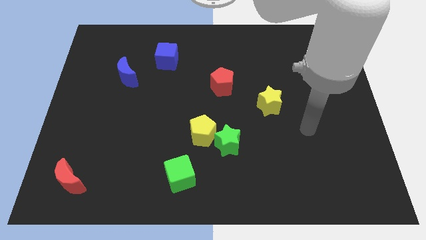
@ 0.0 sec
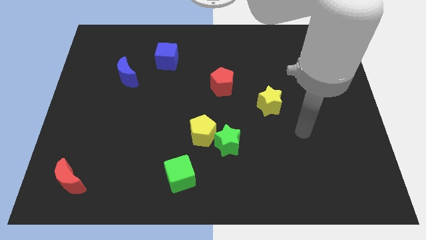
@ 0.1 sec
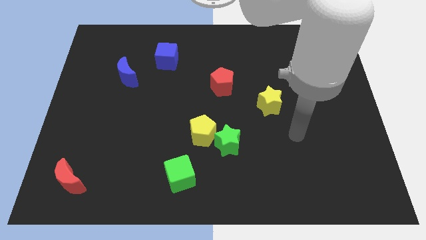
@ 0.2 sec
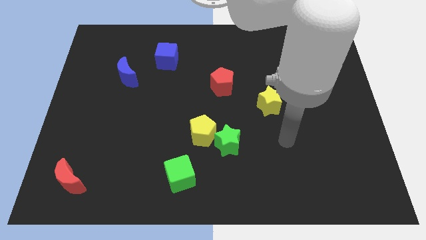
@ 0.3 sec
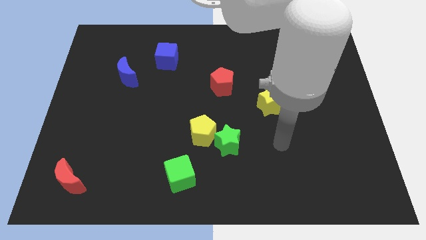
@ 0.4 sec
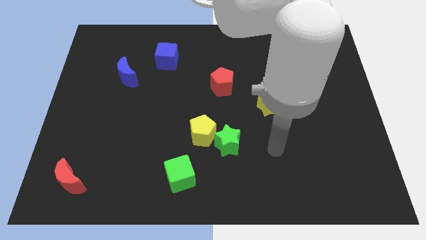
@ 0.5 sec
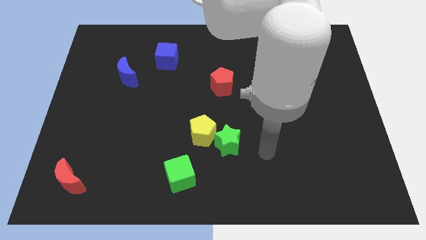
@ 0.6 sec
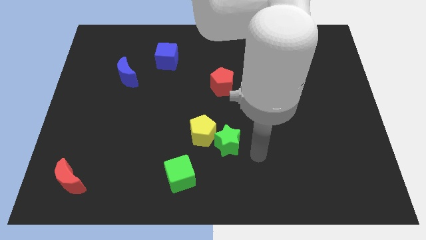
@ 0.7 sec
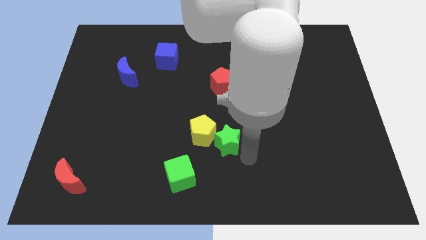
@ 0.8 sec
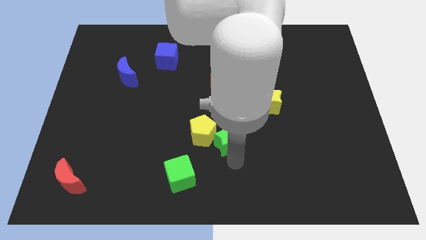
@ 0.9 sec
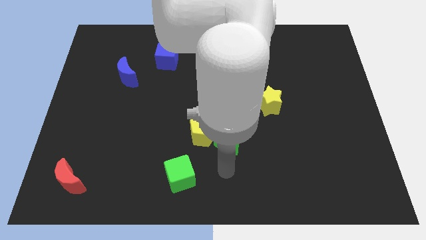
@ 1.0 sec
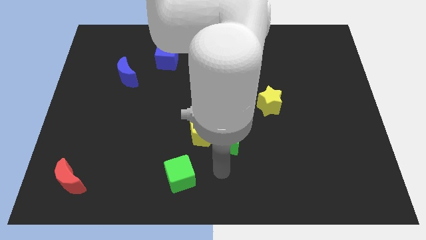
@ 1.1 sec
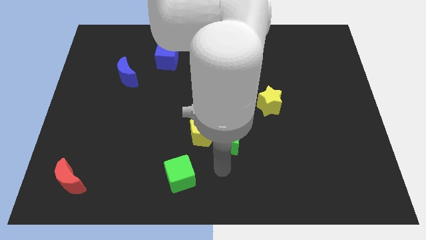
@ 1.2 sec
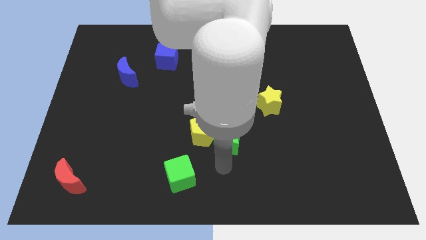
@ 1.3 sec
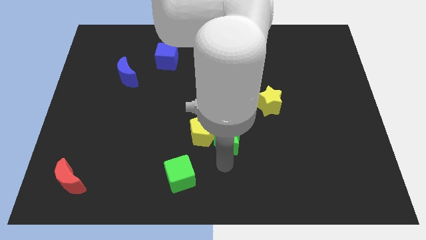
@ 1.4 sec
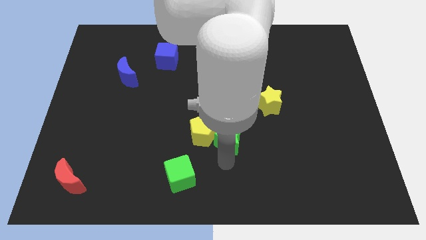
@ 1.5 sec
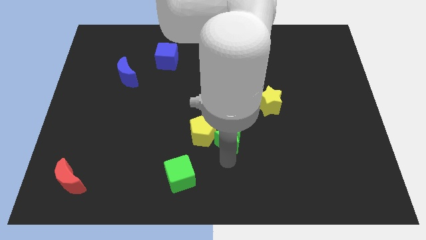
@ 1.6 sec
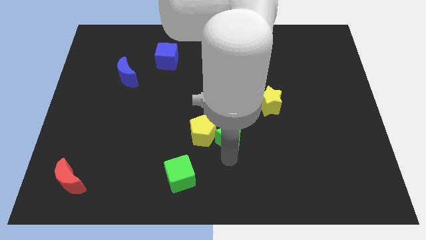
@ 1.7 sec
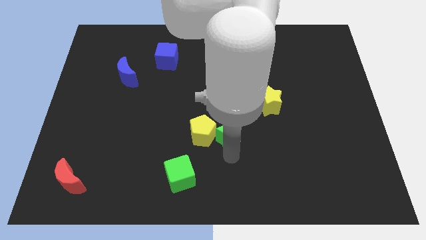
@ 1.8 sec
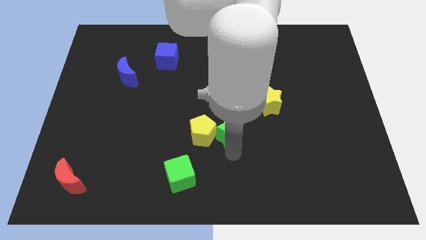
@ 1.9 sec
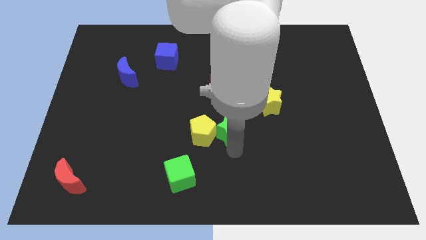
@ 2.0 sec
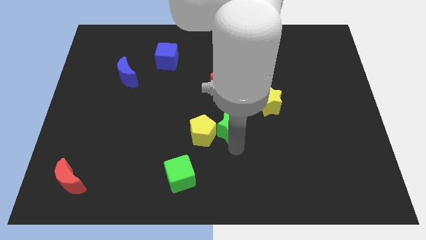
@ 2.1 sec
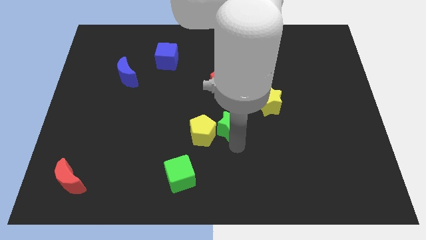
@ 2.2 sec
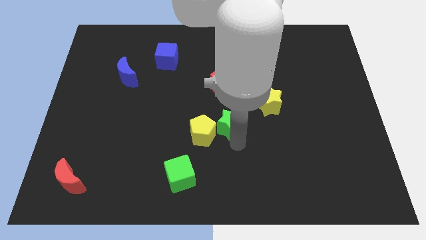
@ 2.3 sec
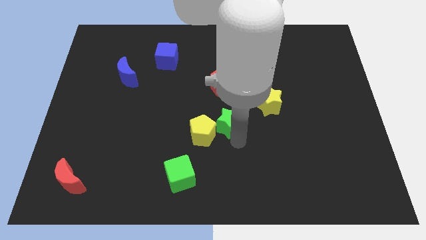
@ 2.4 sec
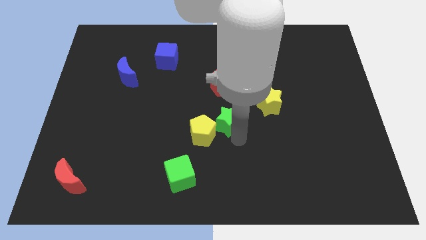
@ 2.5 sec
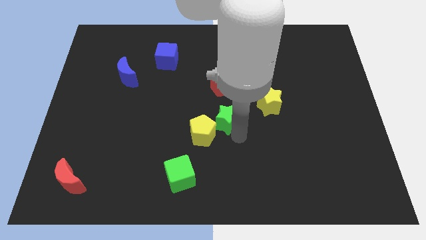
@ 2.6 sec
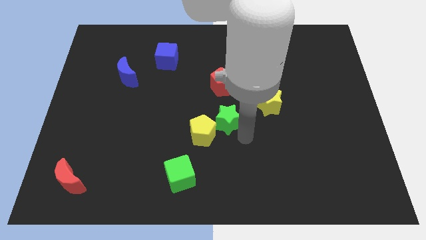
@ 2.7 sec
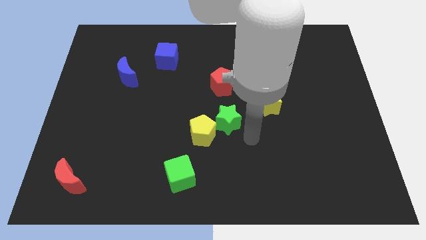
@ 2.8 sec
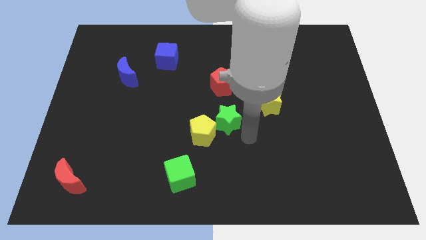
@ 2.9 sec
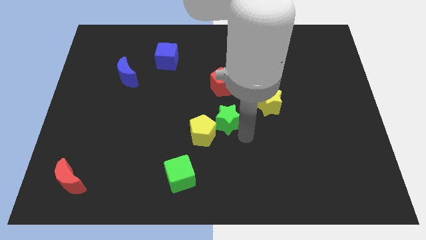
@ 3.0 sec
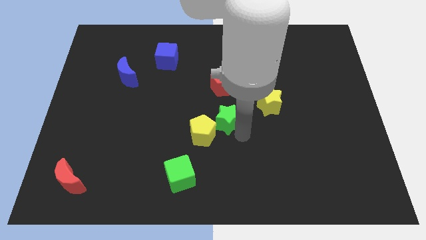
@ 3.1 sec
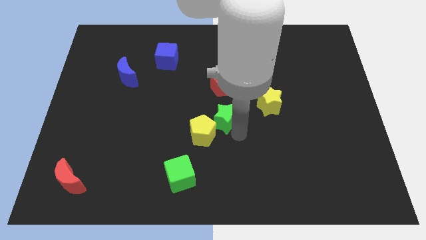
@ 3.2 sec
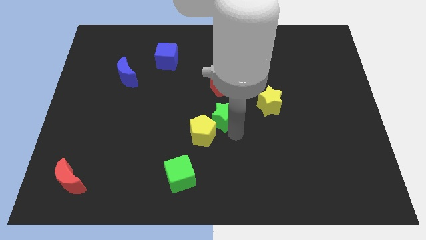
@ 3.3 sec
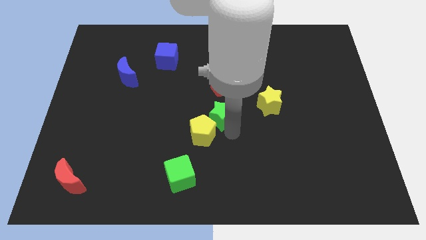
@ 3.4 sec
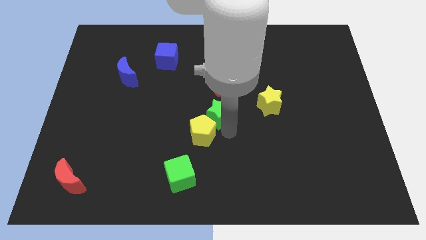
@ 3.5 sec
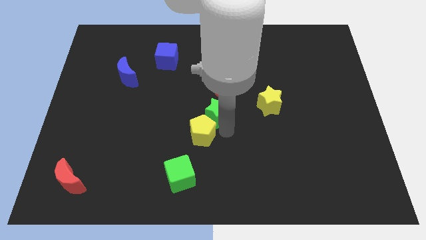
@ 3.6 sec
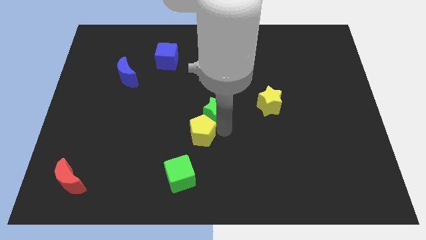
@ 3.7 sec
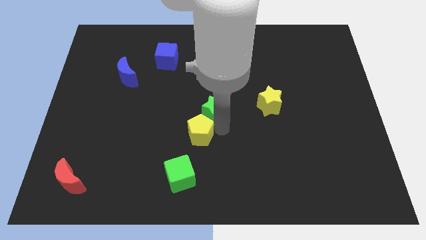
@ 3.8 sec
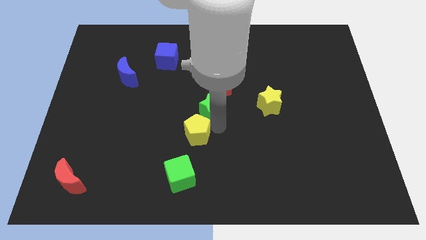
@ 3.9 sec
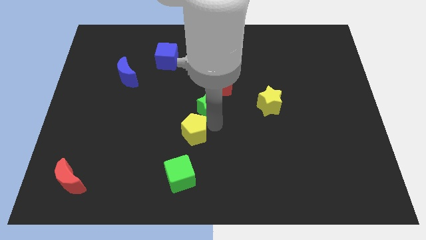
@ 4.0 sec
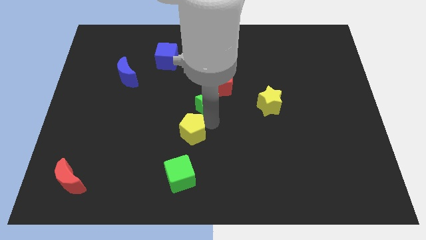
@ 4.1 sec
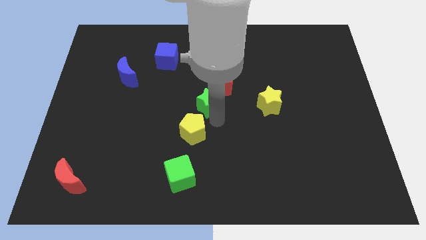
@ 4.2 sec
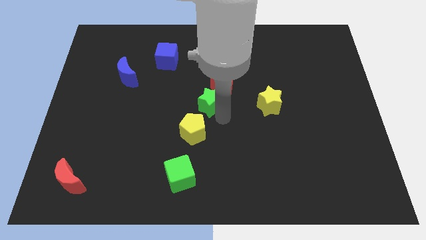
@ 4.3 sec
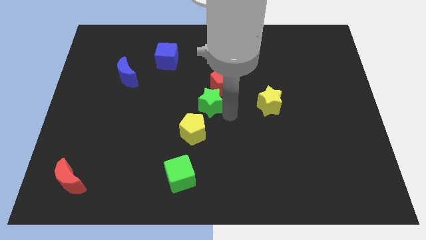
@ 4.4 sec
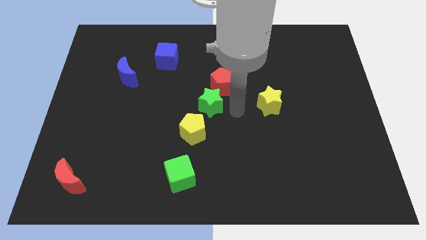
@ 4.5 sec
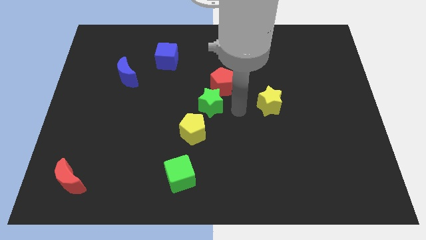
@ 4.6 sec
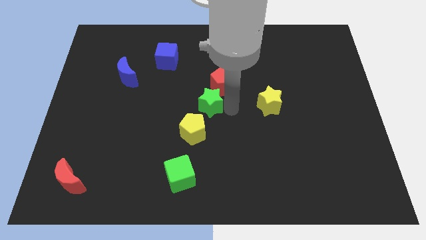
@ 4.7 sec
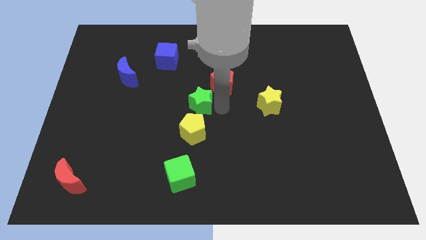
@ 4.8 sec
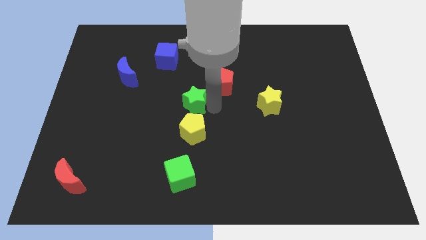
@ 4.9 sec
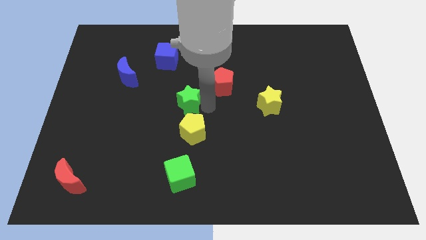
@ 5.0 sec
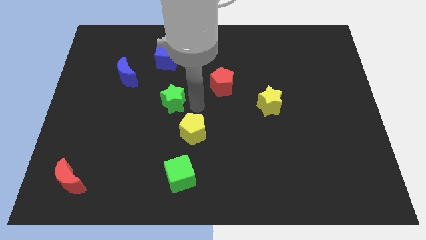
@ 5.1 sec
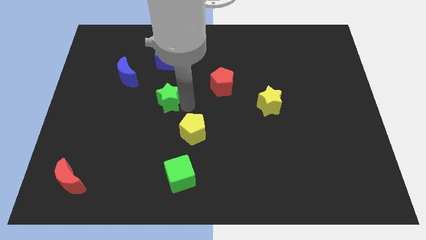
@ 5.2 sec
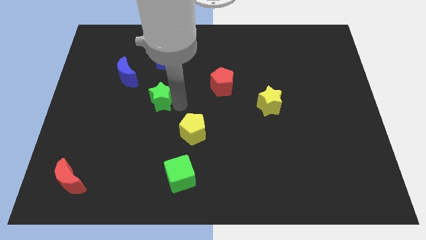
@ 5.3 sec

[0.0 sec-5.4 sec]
put the green star to the bottom right of the blue moon

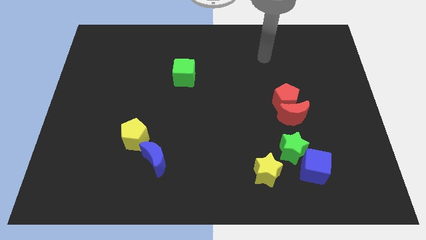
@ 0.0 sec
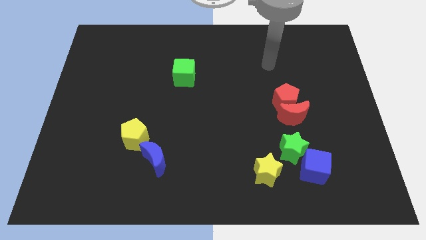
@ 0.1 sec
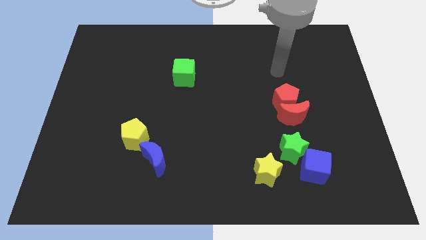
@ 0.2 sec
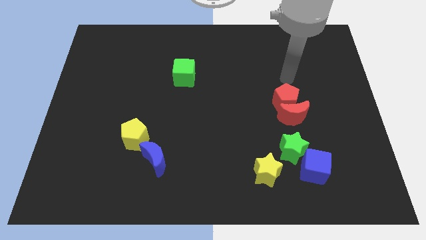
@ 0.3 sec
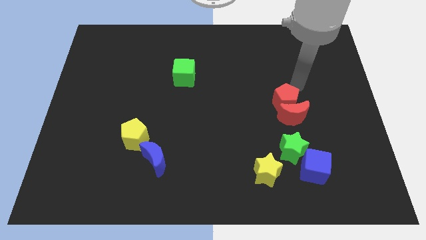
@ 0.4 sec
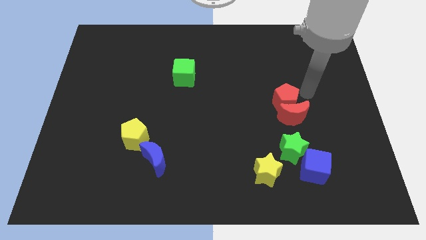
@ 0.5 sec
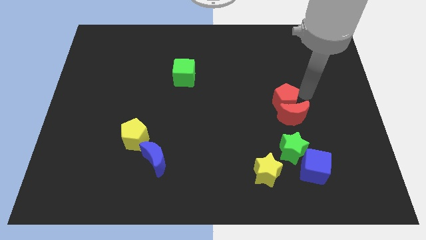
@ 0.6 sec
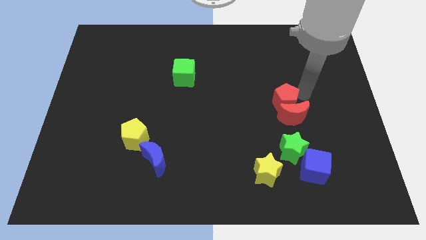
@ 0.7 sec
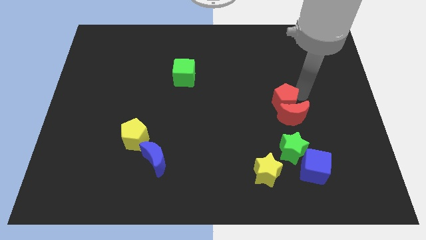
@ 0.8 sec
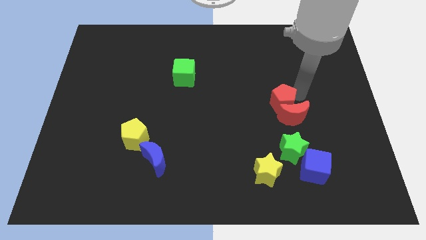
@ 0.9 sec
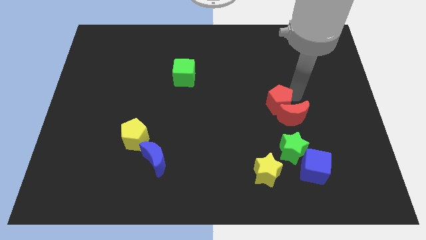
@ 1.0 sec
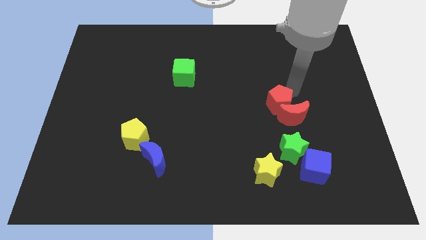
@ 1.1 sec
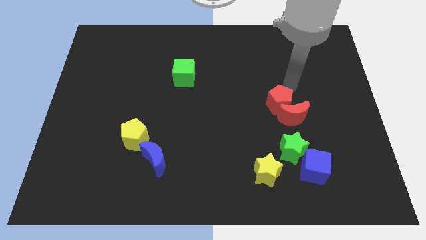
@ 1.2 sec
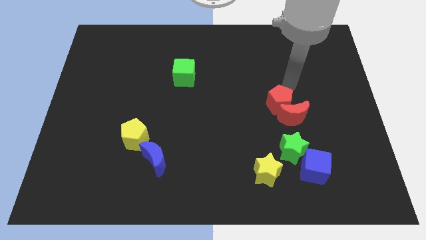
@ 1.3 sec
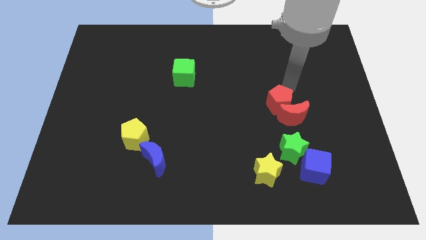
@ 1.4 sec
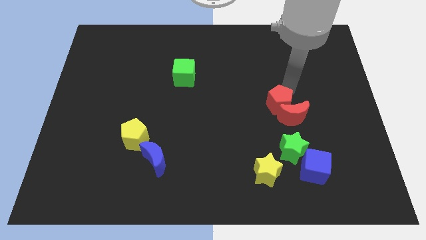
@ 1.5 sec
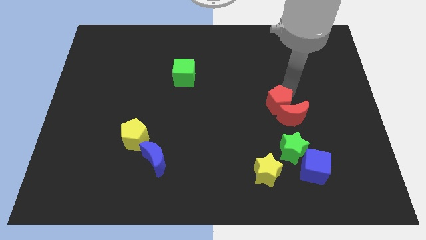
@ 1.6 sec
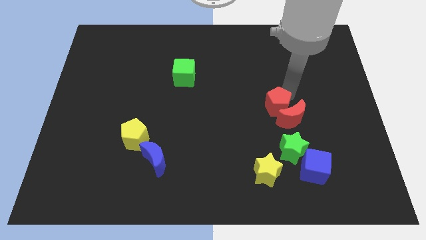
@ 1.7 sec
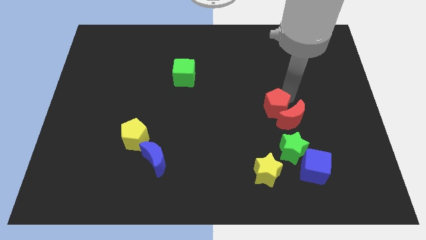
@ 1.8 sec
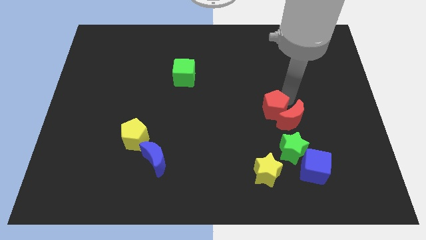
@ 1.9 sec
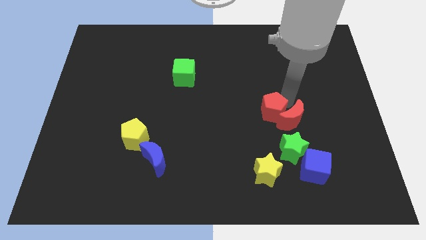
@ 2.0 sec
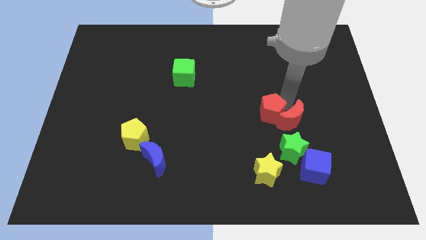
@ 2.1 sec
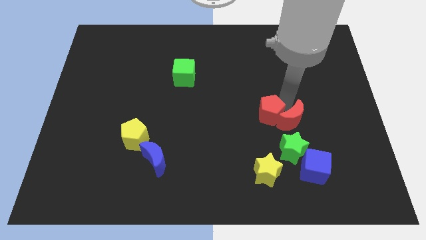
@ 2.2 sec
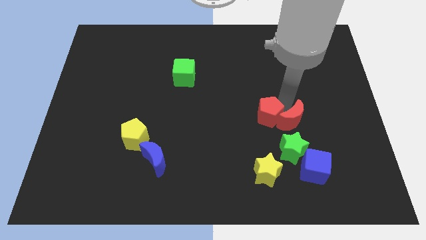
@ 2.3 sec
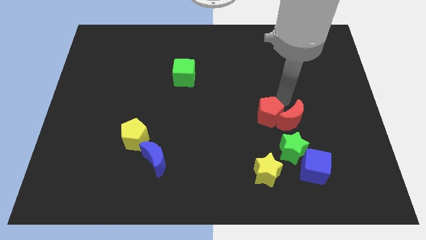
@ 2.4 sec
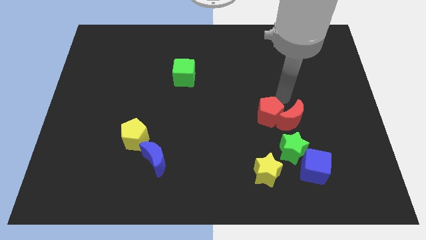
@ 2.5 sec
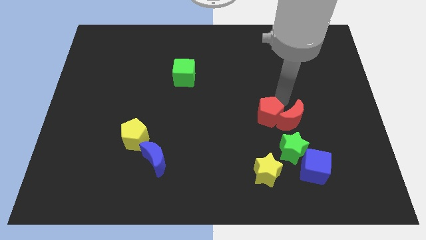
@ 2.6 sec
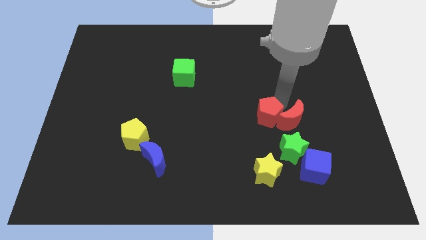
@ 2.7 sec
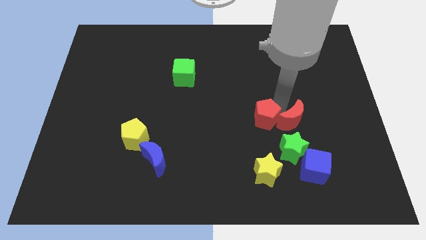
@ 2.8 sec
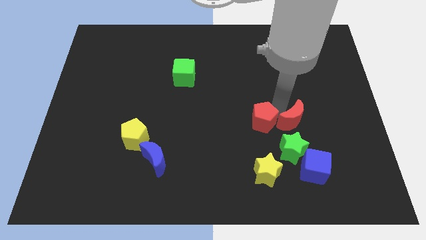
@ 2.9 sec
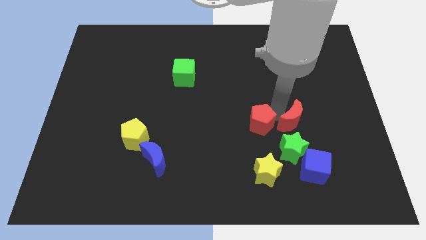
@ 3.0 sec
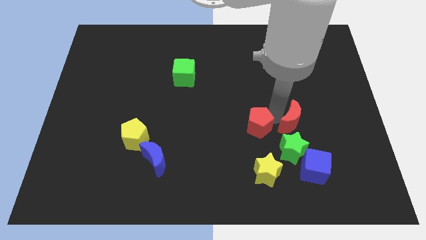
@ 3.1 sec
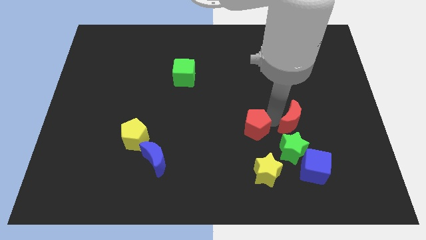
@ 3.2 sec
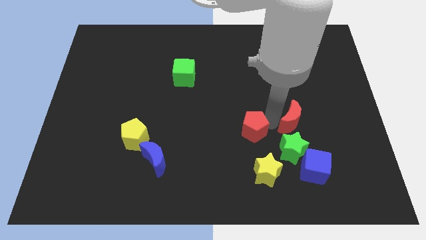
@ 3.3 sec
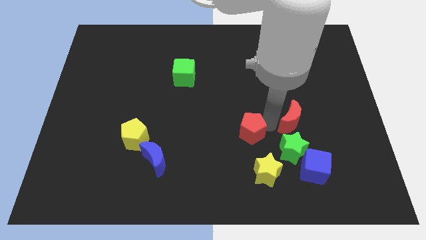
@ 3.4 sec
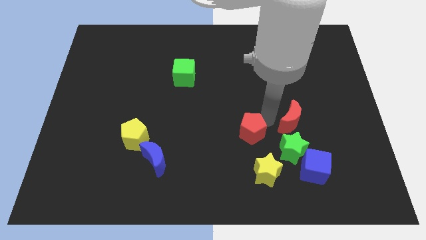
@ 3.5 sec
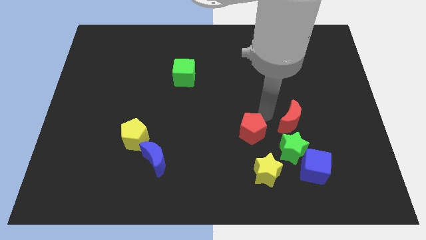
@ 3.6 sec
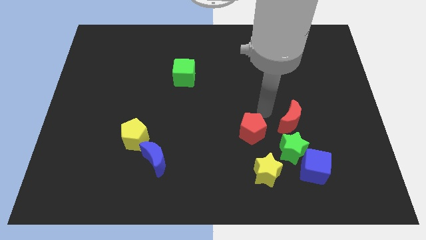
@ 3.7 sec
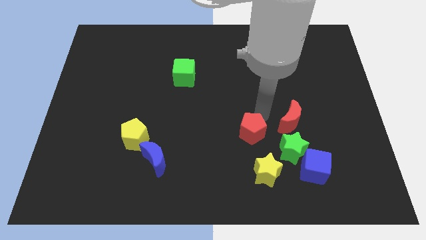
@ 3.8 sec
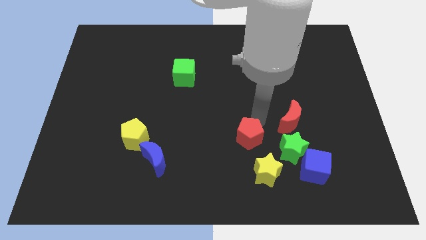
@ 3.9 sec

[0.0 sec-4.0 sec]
move the red pentagon to the top left side of the yellow star
